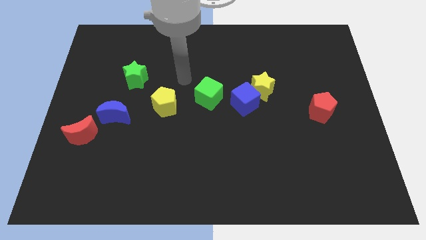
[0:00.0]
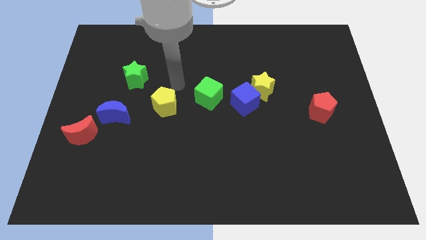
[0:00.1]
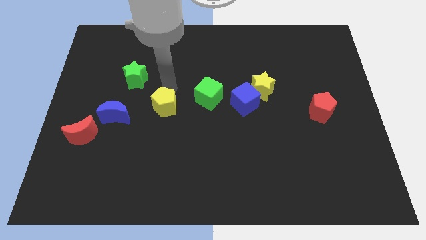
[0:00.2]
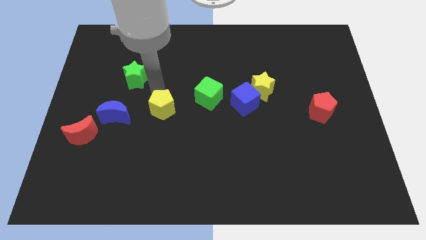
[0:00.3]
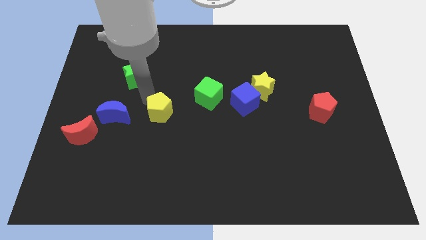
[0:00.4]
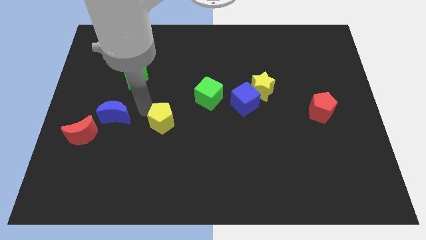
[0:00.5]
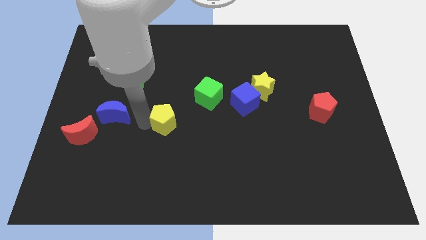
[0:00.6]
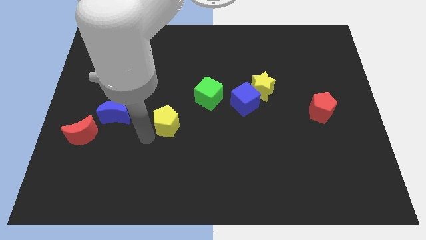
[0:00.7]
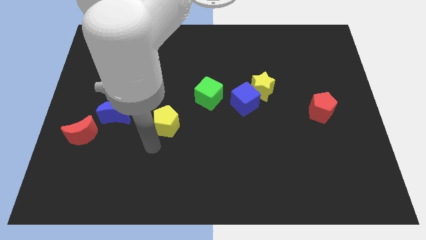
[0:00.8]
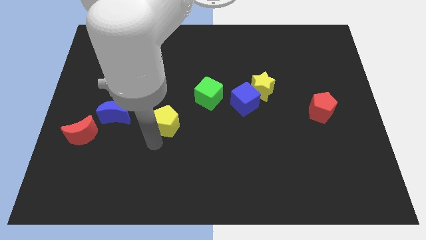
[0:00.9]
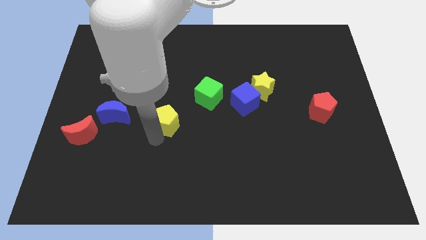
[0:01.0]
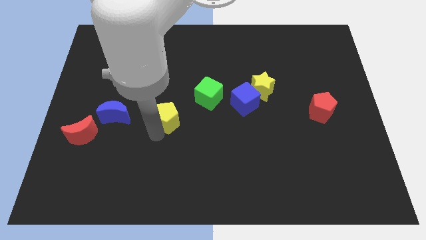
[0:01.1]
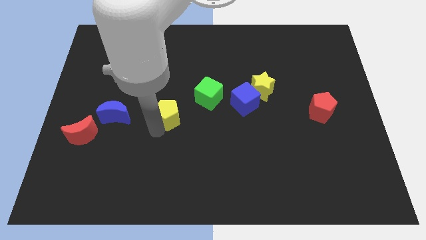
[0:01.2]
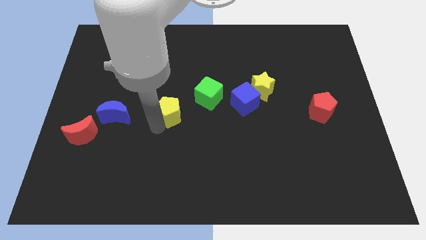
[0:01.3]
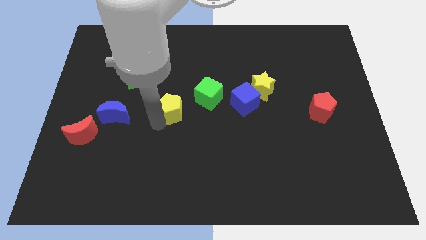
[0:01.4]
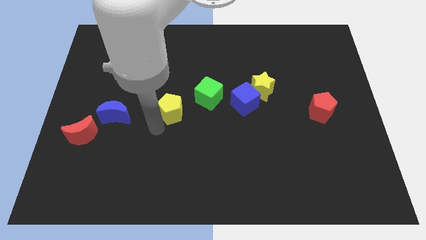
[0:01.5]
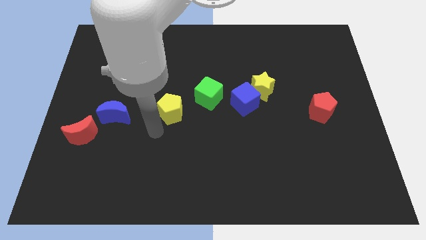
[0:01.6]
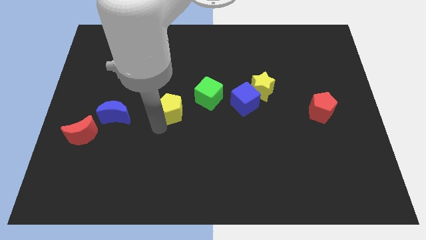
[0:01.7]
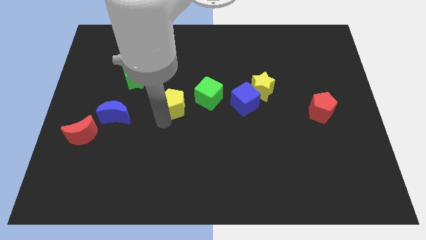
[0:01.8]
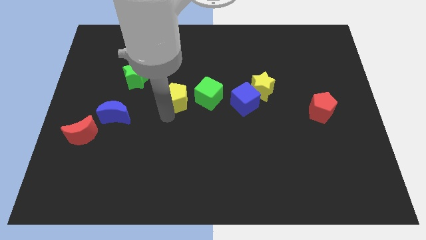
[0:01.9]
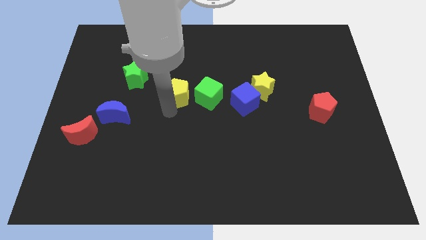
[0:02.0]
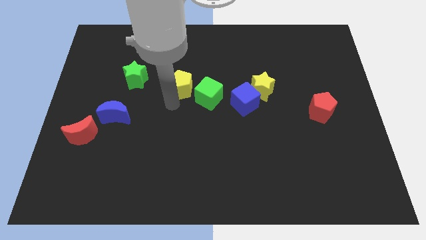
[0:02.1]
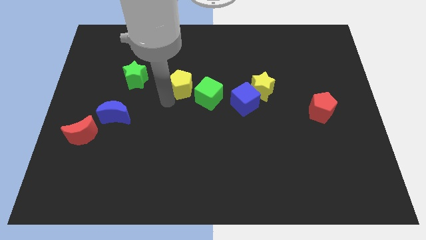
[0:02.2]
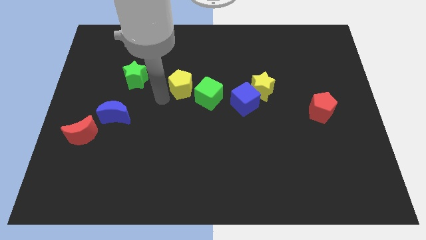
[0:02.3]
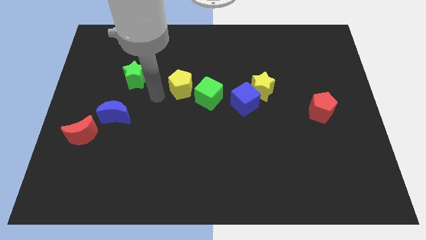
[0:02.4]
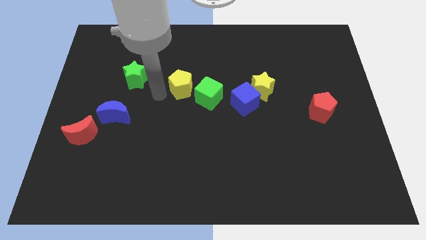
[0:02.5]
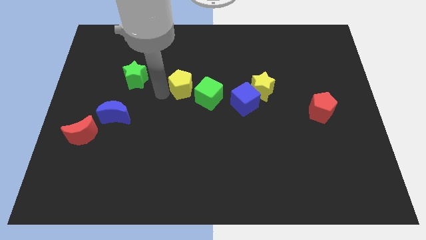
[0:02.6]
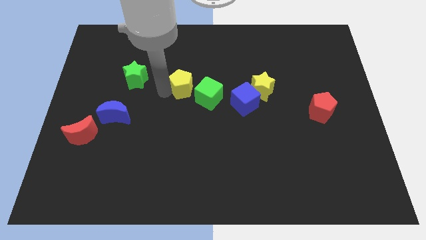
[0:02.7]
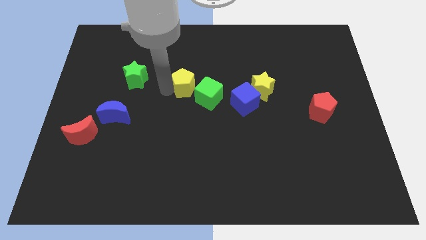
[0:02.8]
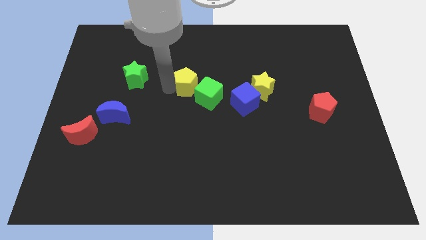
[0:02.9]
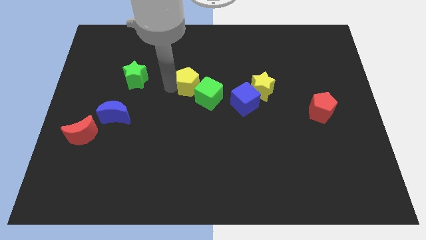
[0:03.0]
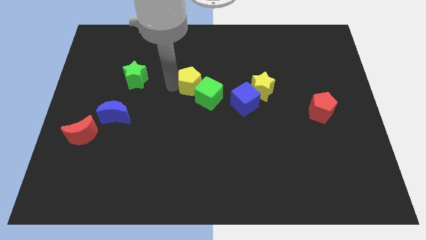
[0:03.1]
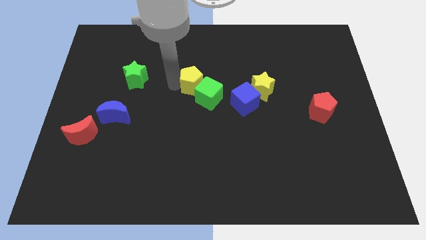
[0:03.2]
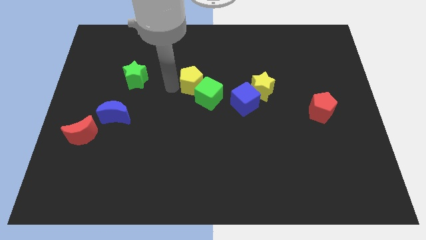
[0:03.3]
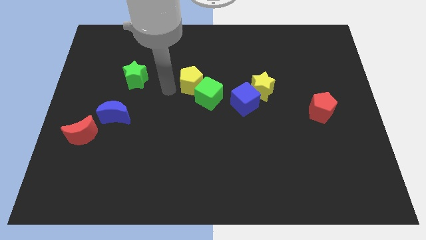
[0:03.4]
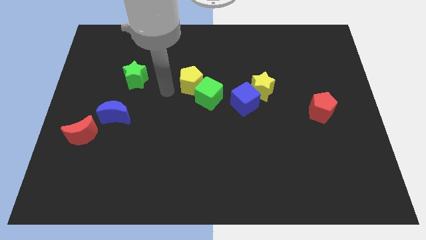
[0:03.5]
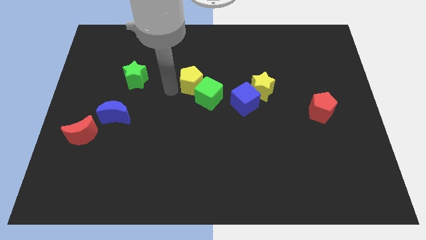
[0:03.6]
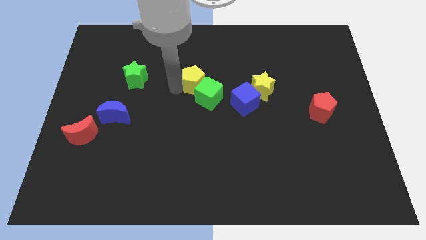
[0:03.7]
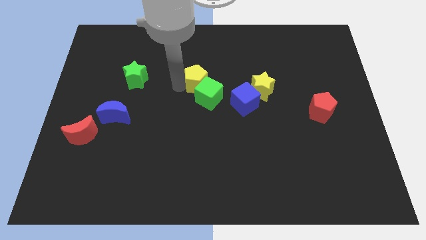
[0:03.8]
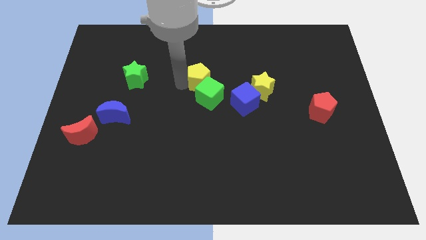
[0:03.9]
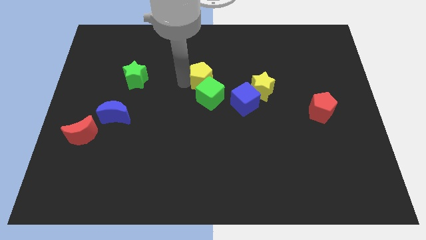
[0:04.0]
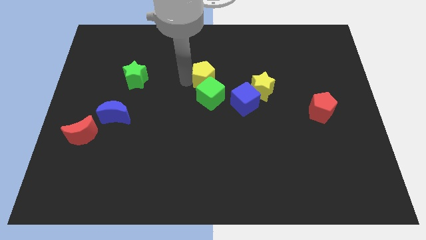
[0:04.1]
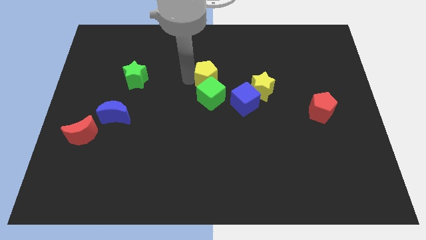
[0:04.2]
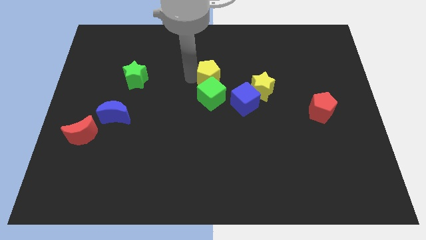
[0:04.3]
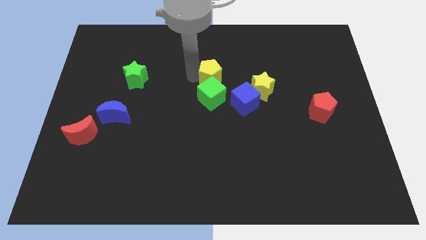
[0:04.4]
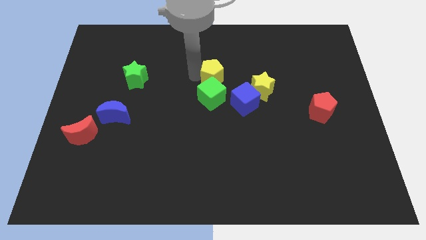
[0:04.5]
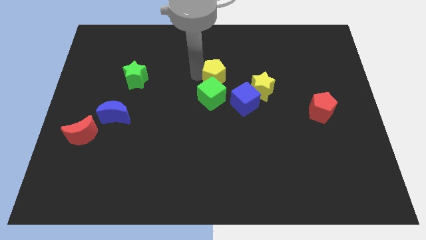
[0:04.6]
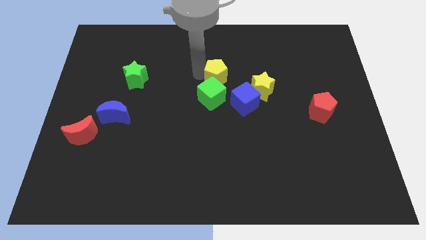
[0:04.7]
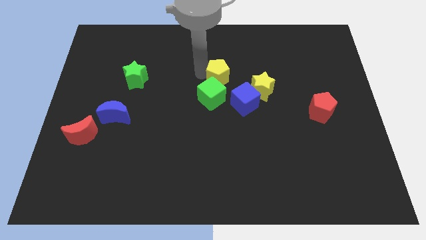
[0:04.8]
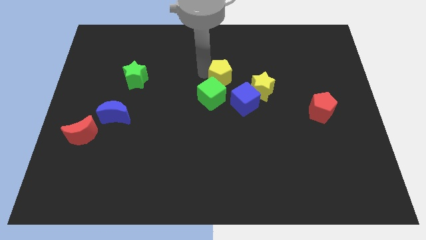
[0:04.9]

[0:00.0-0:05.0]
push the yellow pentagon to the top left side of the yellow star

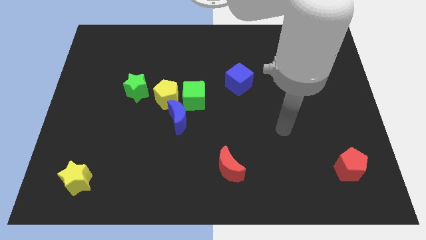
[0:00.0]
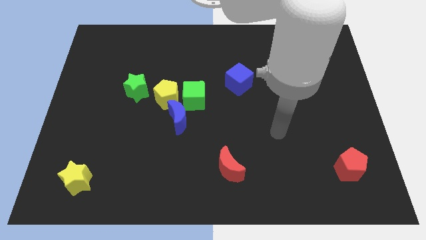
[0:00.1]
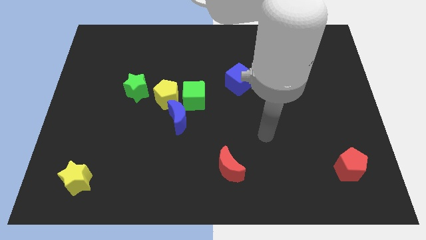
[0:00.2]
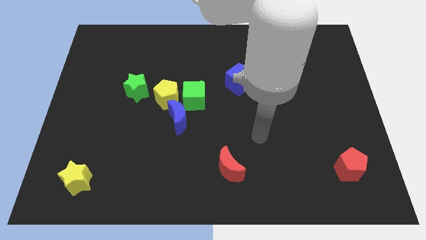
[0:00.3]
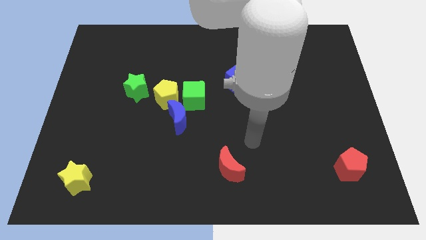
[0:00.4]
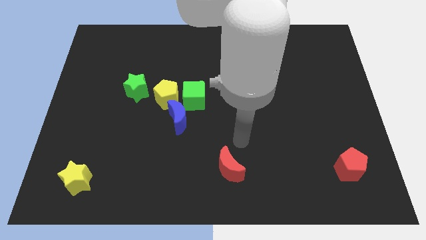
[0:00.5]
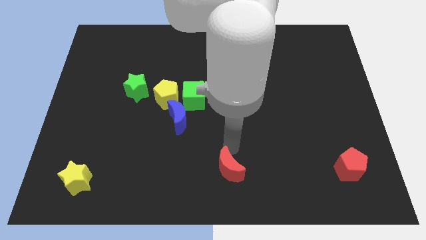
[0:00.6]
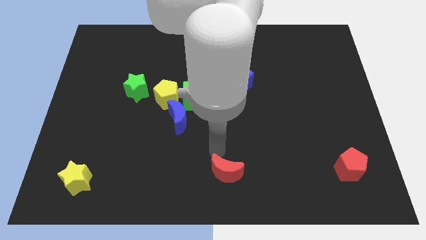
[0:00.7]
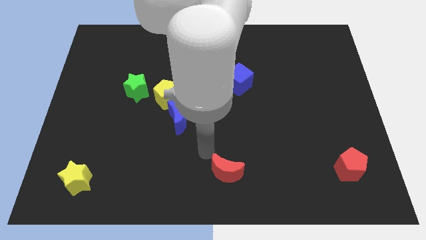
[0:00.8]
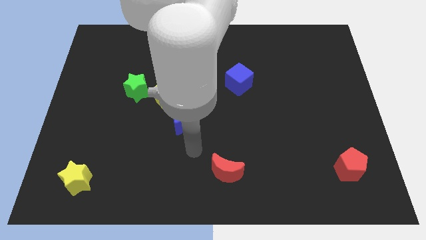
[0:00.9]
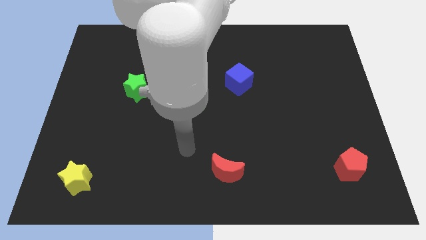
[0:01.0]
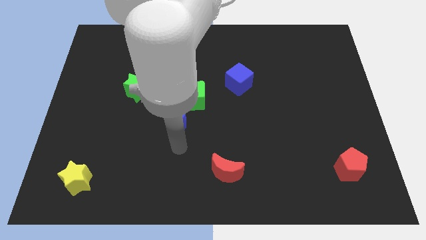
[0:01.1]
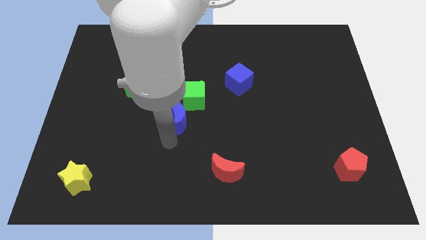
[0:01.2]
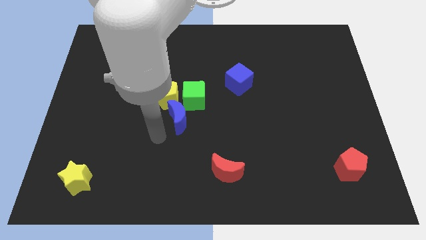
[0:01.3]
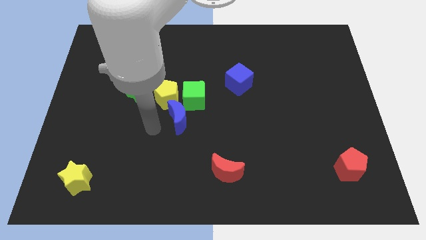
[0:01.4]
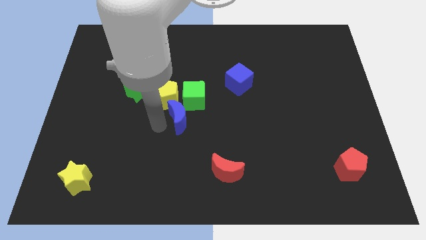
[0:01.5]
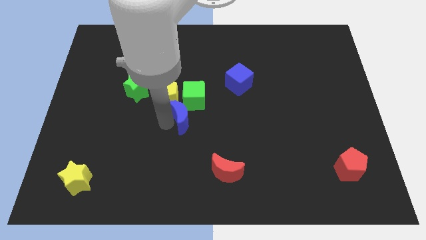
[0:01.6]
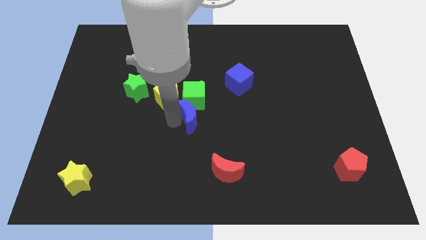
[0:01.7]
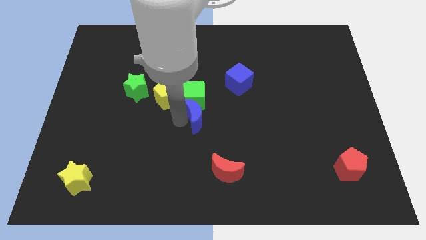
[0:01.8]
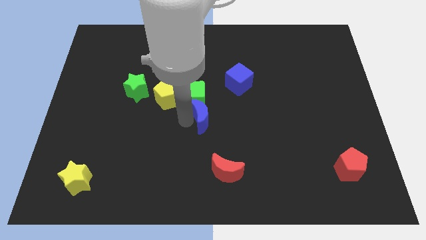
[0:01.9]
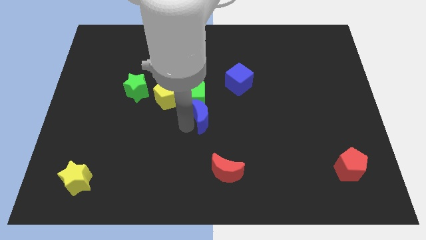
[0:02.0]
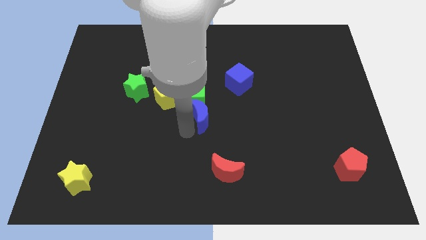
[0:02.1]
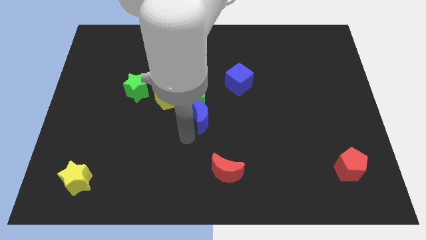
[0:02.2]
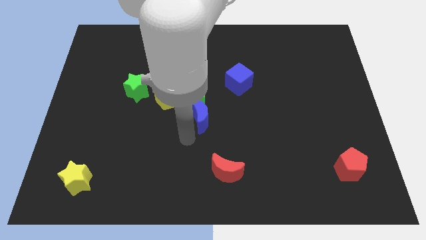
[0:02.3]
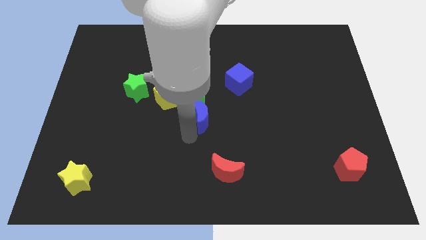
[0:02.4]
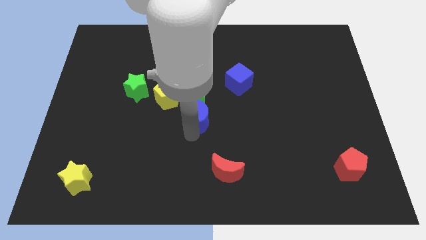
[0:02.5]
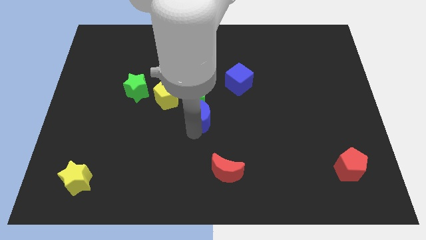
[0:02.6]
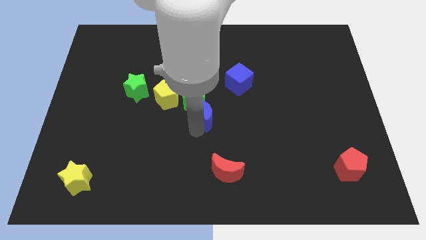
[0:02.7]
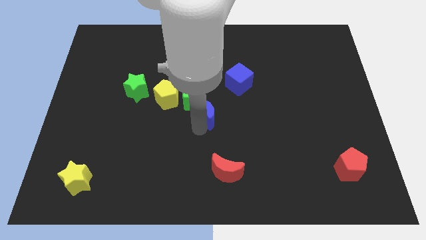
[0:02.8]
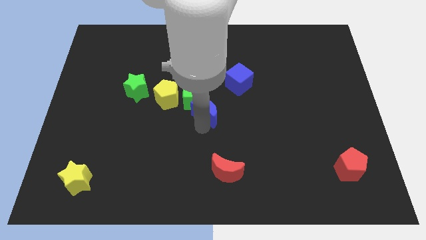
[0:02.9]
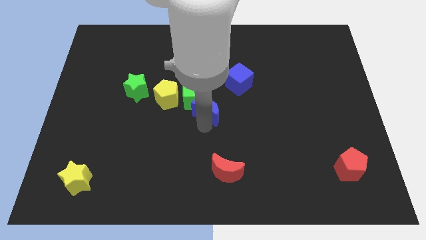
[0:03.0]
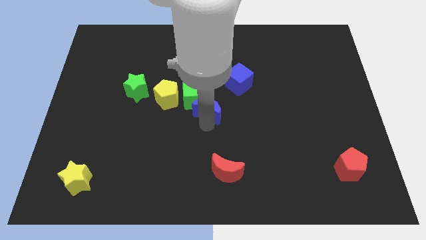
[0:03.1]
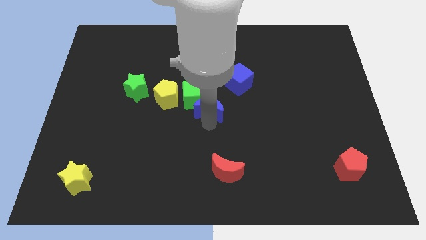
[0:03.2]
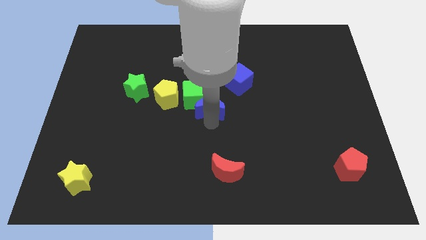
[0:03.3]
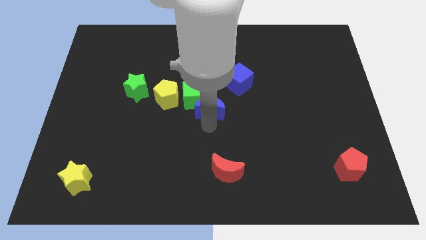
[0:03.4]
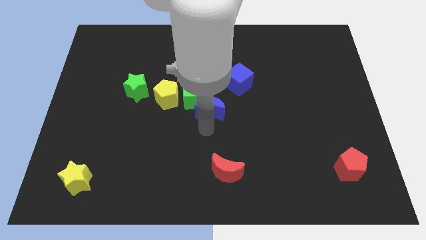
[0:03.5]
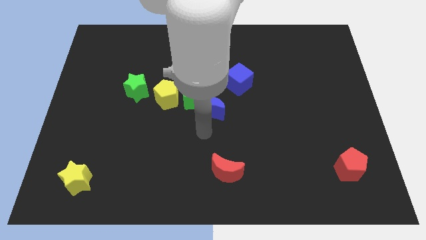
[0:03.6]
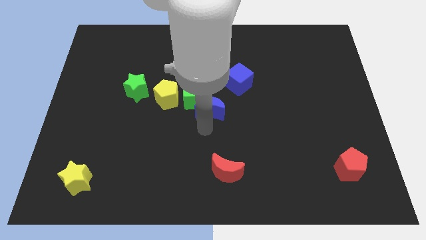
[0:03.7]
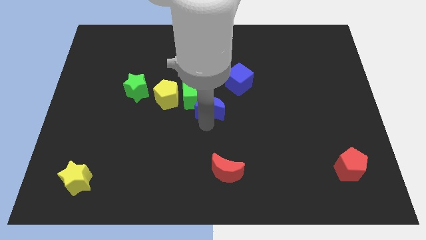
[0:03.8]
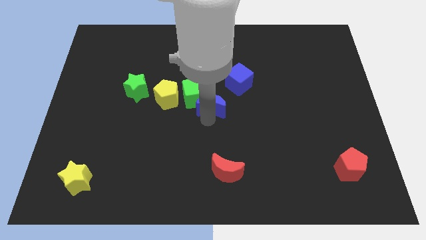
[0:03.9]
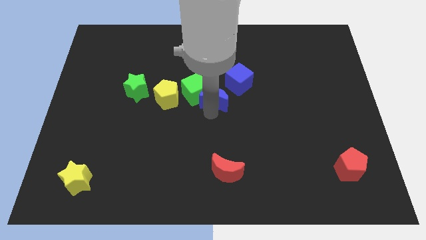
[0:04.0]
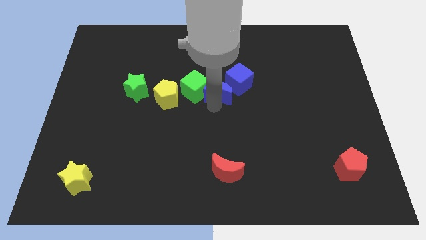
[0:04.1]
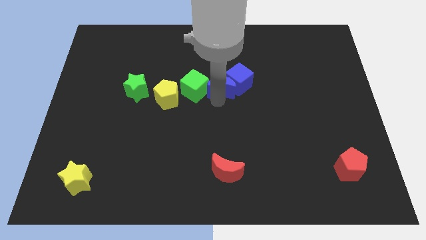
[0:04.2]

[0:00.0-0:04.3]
put the blue moon diagonally up and to the right of the green cube
